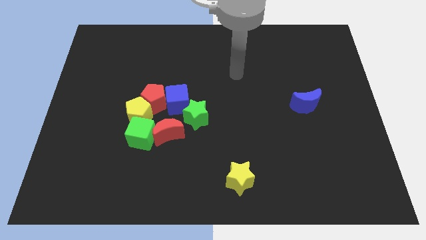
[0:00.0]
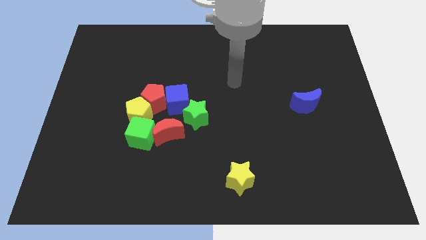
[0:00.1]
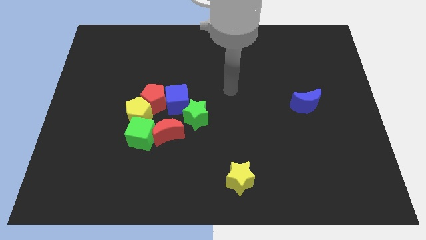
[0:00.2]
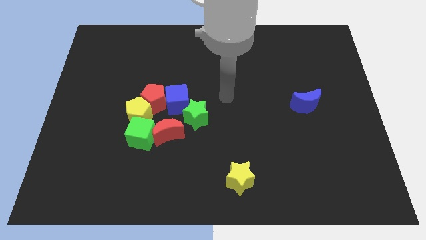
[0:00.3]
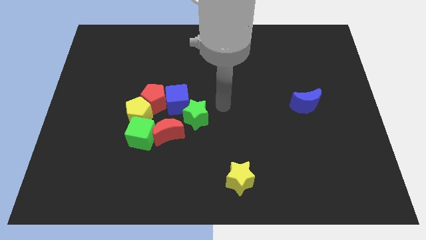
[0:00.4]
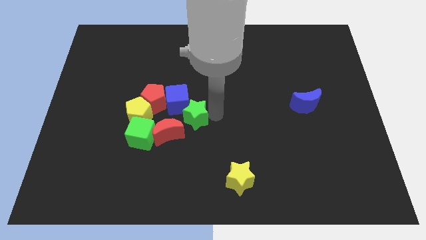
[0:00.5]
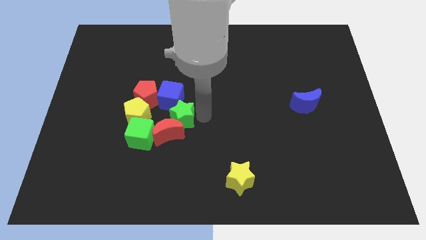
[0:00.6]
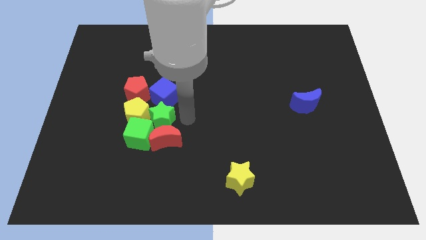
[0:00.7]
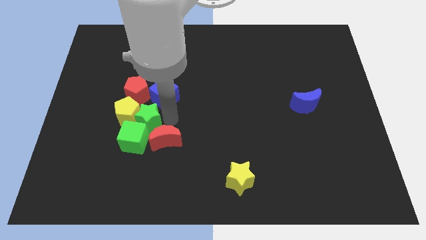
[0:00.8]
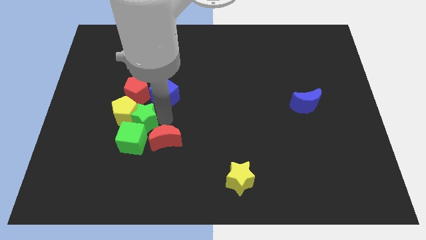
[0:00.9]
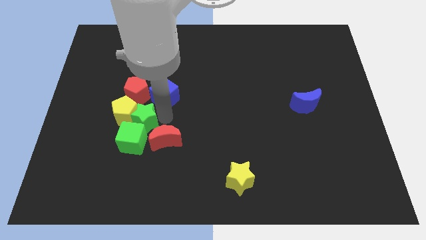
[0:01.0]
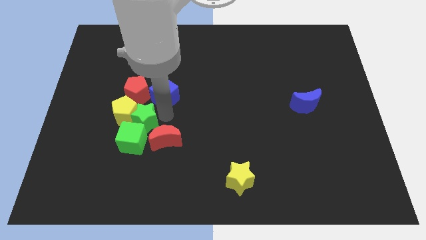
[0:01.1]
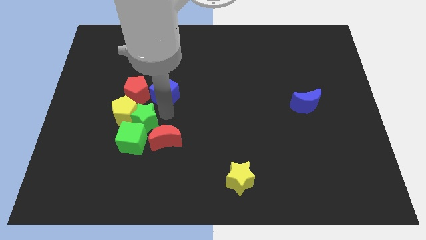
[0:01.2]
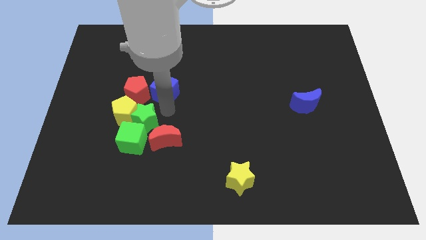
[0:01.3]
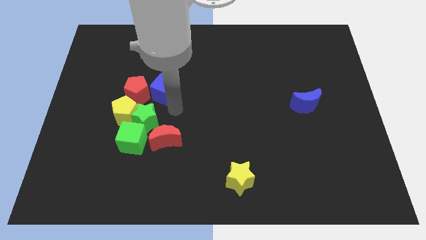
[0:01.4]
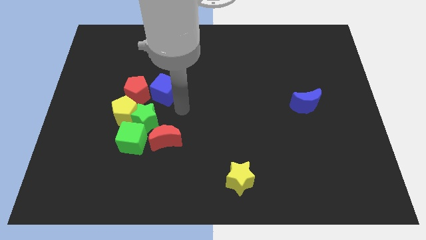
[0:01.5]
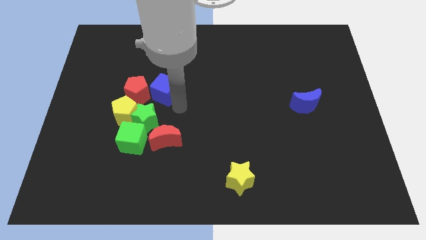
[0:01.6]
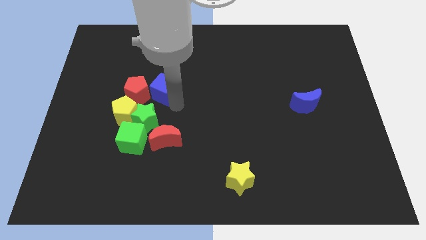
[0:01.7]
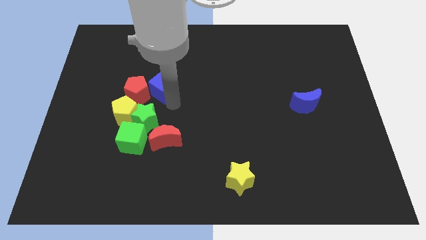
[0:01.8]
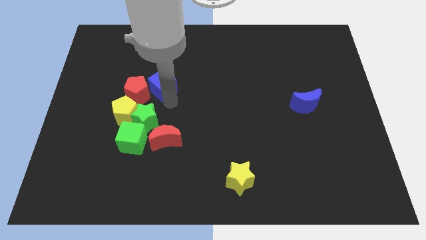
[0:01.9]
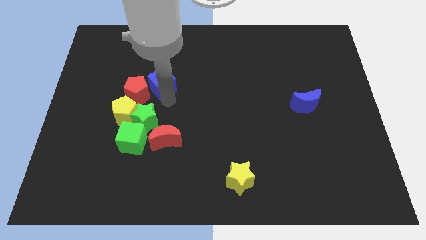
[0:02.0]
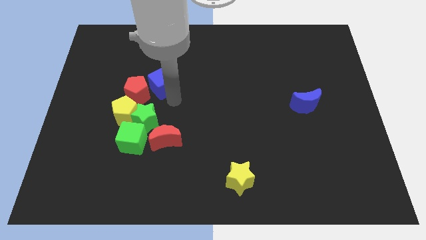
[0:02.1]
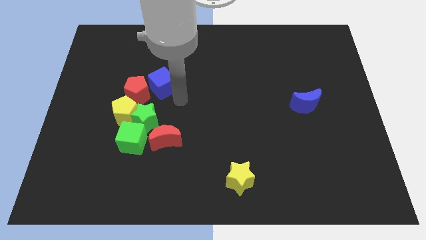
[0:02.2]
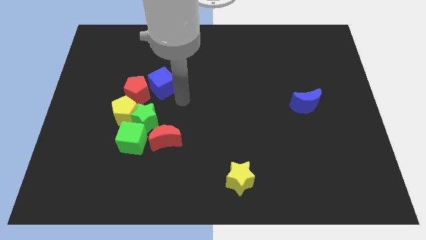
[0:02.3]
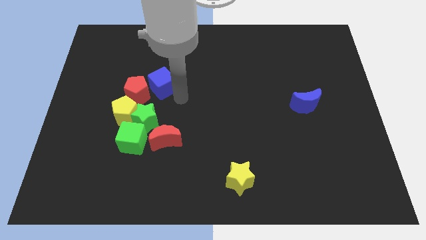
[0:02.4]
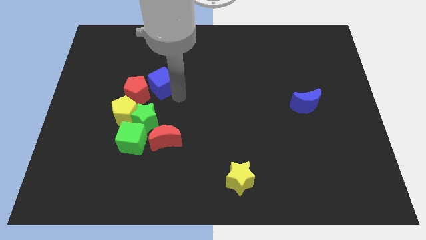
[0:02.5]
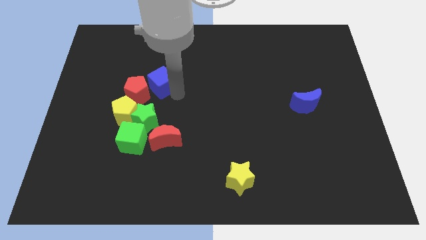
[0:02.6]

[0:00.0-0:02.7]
slide the blue cube diagonally up and left a bit

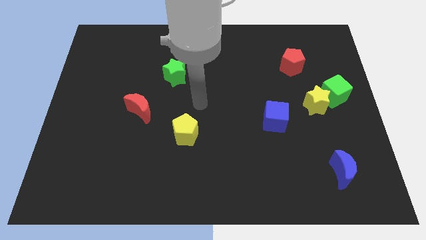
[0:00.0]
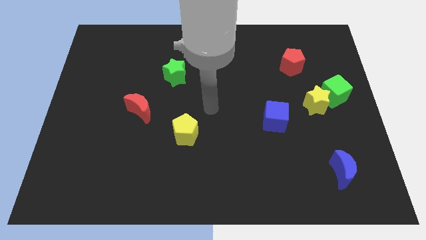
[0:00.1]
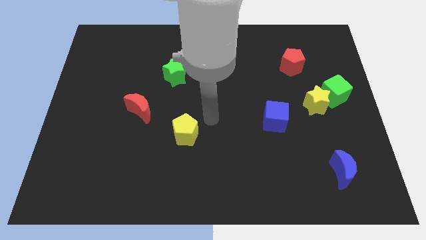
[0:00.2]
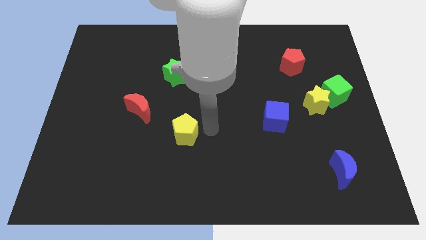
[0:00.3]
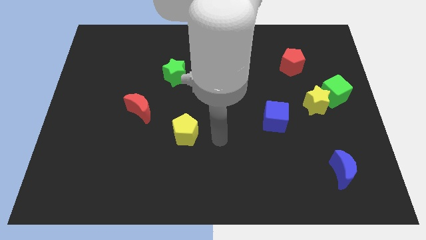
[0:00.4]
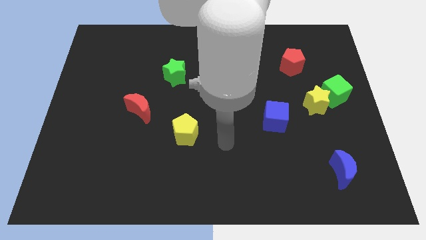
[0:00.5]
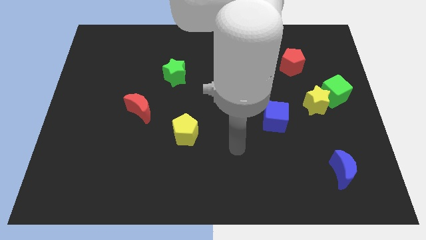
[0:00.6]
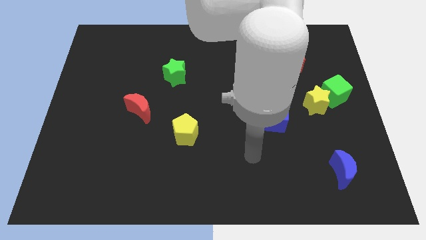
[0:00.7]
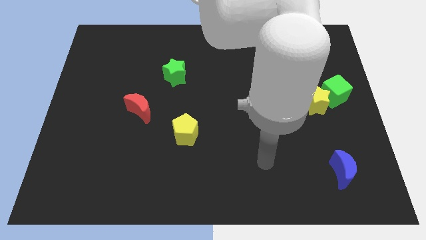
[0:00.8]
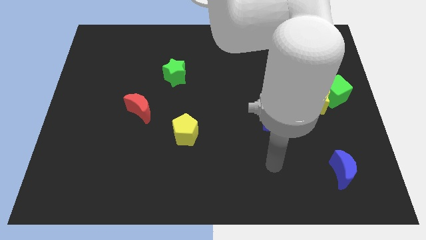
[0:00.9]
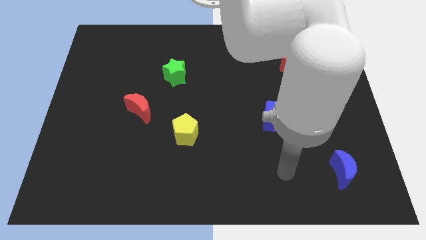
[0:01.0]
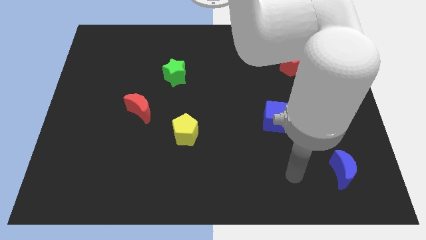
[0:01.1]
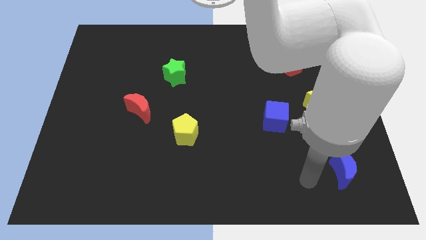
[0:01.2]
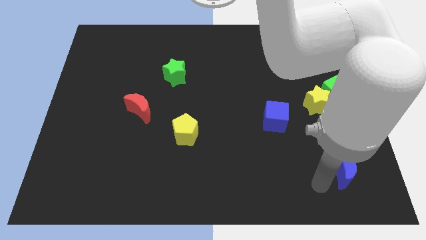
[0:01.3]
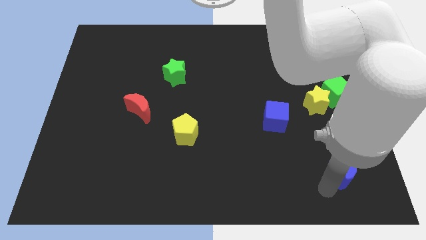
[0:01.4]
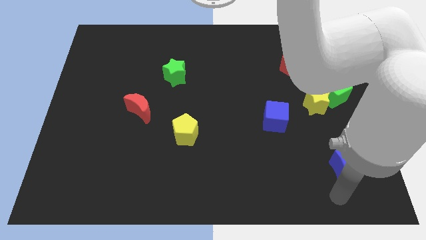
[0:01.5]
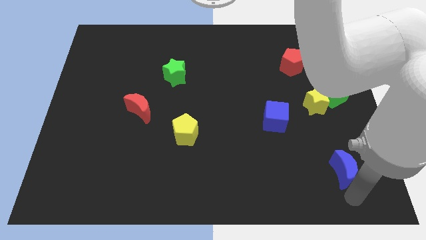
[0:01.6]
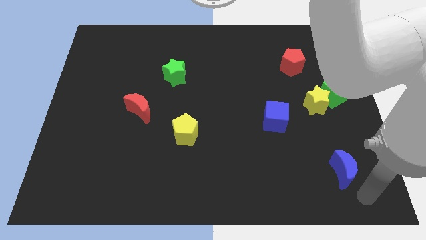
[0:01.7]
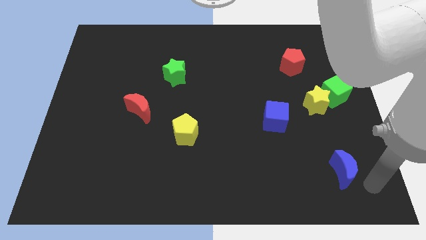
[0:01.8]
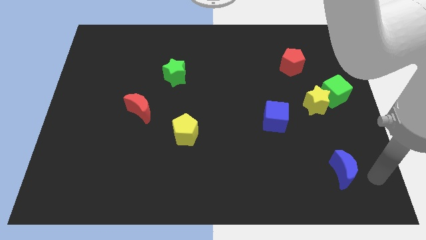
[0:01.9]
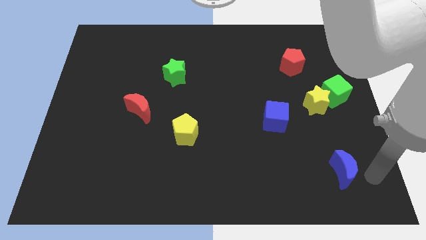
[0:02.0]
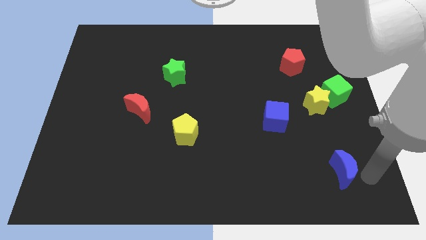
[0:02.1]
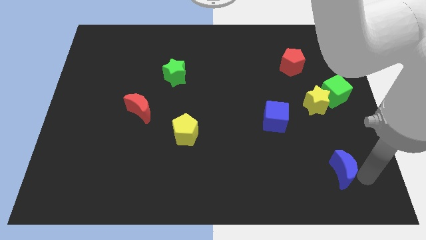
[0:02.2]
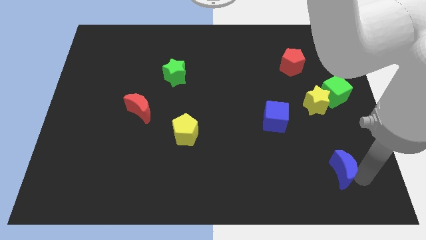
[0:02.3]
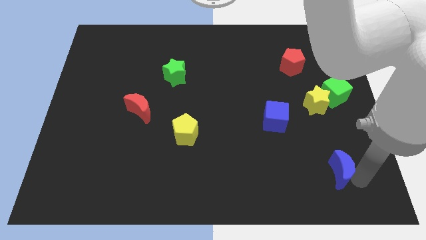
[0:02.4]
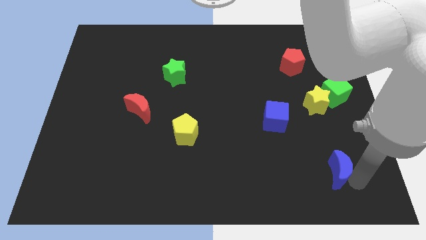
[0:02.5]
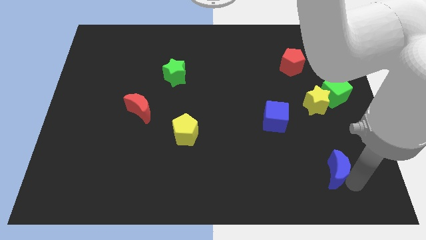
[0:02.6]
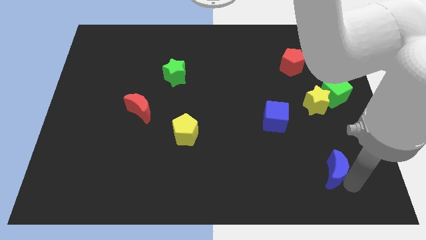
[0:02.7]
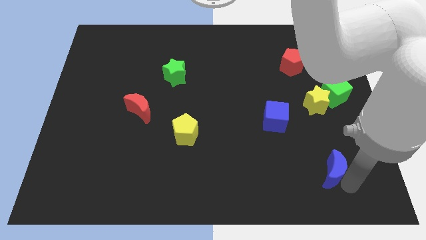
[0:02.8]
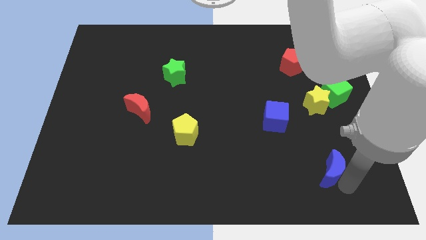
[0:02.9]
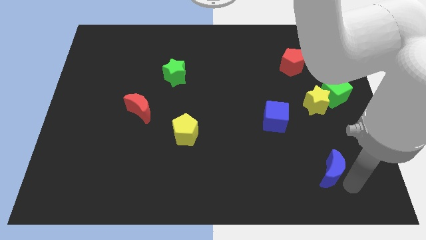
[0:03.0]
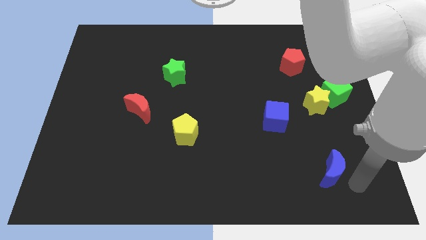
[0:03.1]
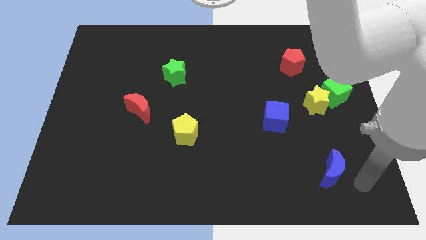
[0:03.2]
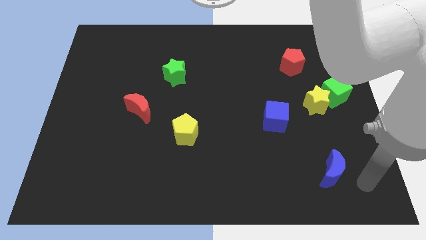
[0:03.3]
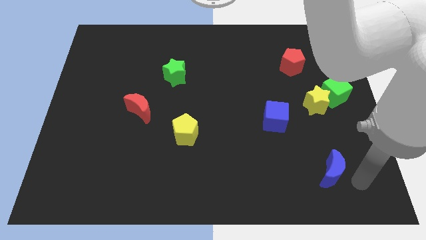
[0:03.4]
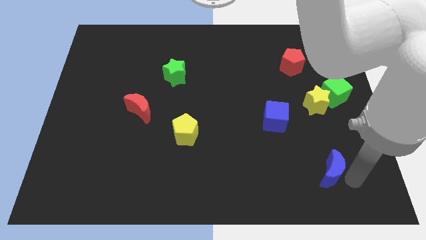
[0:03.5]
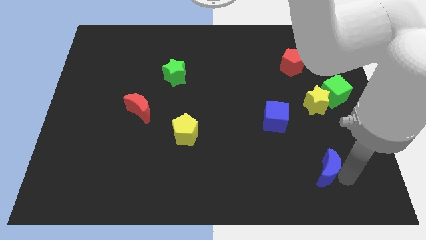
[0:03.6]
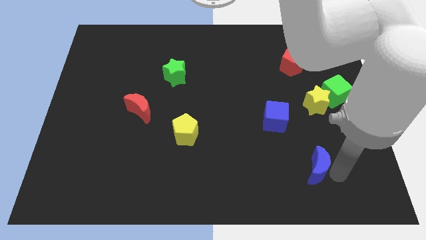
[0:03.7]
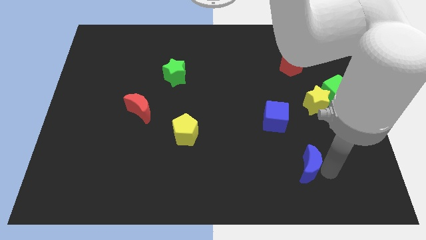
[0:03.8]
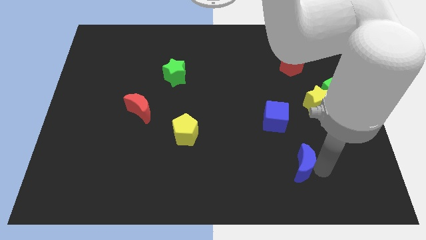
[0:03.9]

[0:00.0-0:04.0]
push the blue moon somewhat to the left

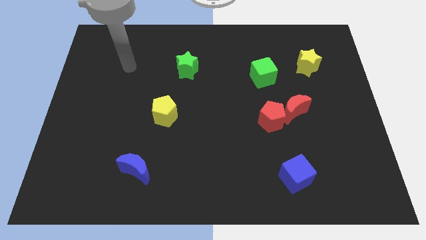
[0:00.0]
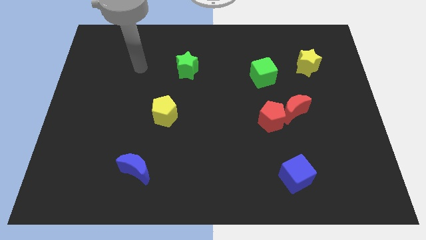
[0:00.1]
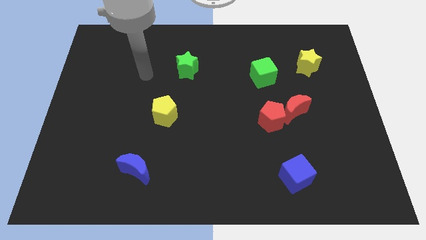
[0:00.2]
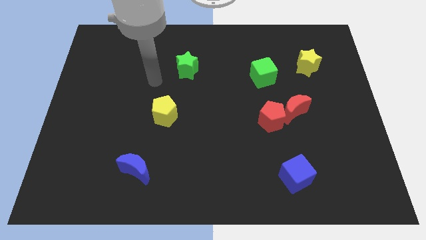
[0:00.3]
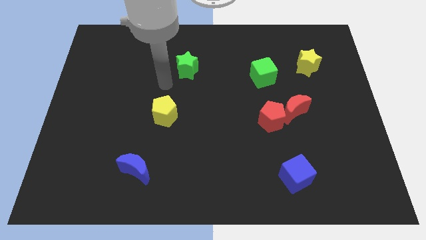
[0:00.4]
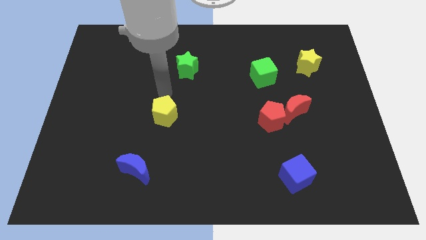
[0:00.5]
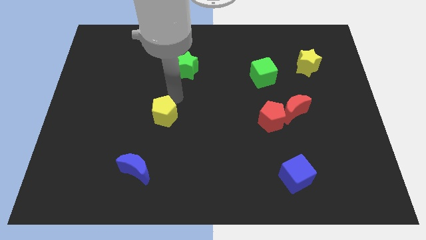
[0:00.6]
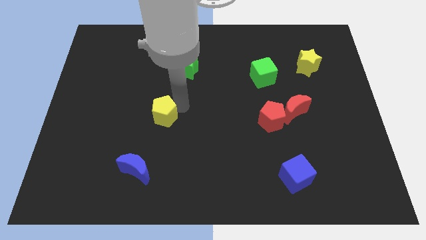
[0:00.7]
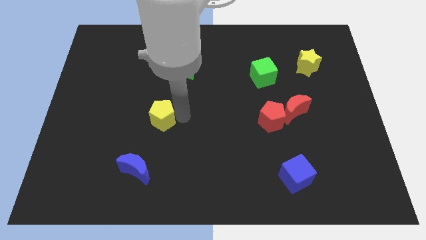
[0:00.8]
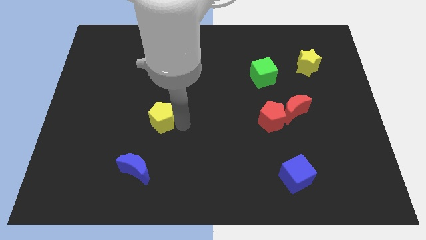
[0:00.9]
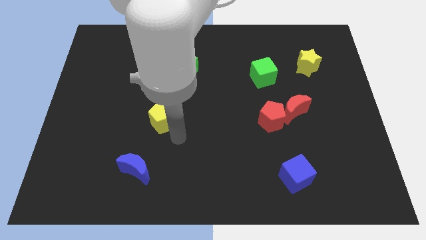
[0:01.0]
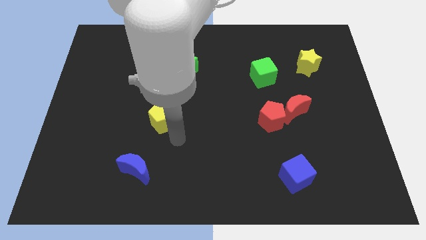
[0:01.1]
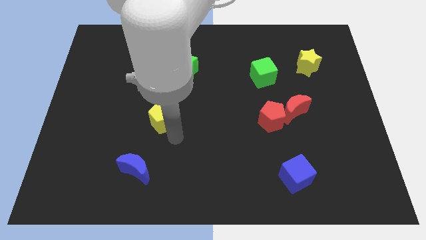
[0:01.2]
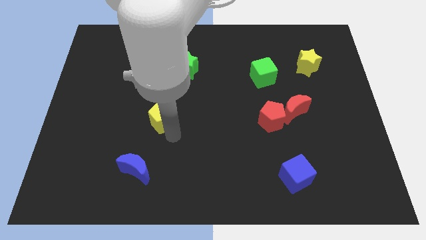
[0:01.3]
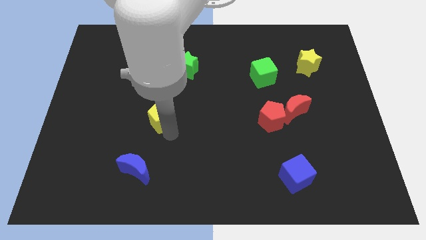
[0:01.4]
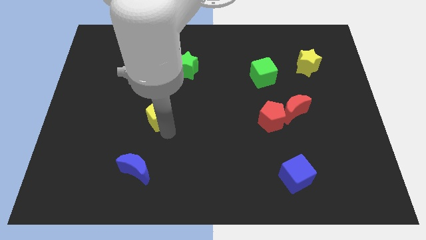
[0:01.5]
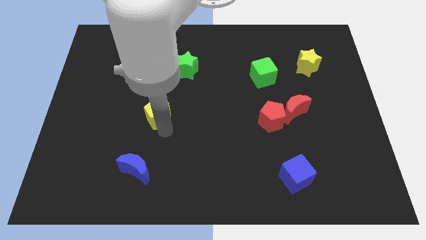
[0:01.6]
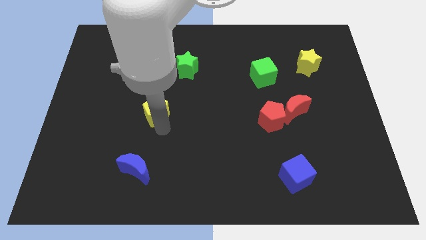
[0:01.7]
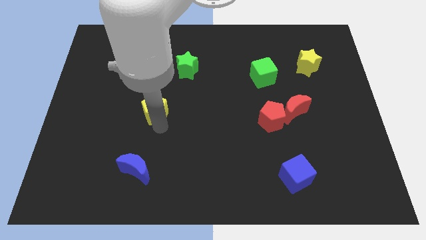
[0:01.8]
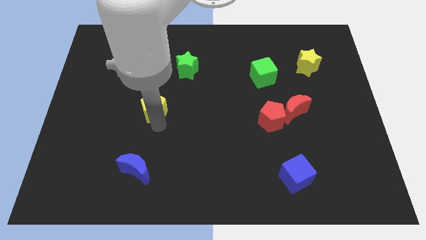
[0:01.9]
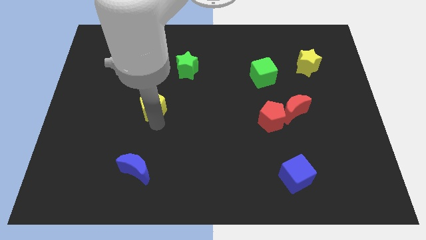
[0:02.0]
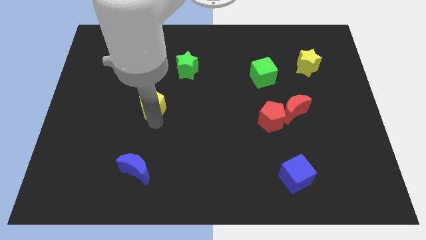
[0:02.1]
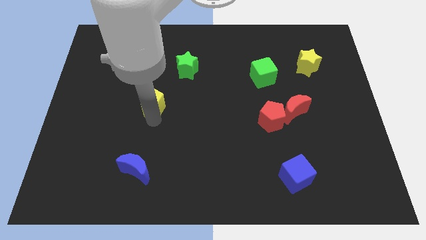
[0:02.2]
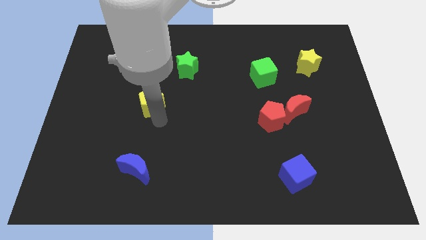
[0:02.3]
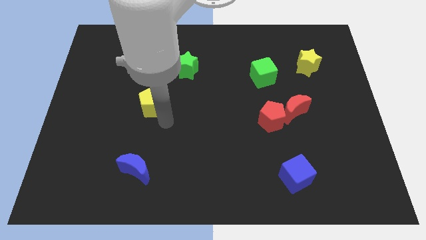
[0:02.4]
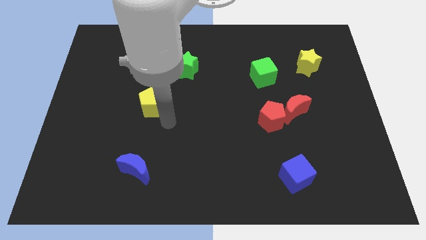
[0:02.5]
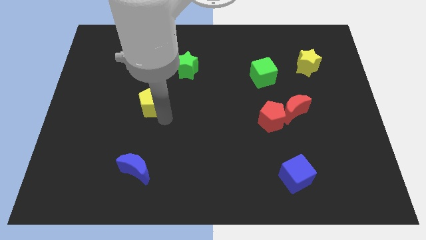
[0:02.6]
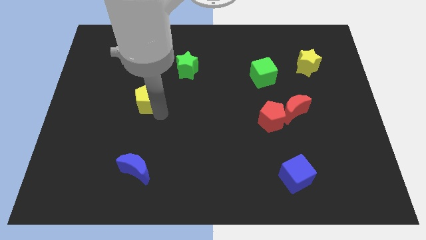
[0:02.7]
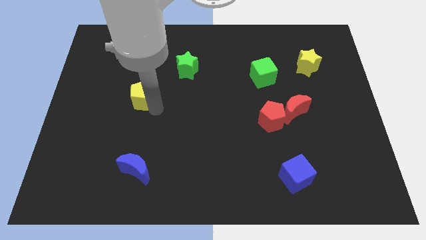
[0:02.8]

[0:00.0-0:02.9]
push the yellow pentagon a little upwards and left
